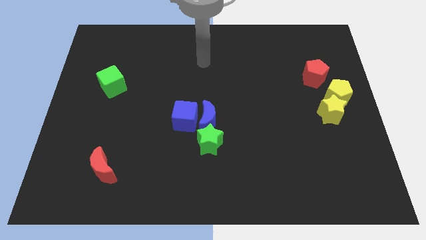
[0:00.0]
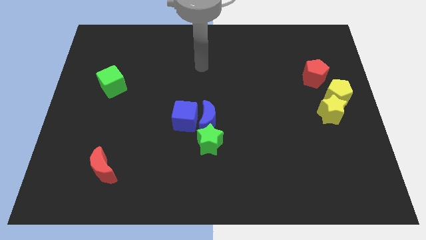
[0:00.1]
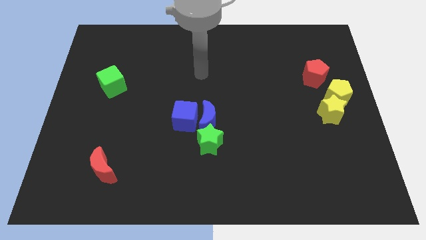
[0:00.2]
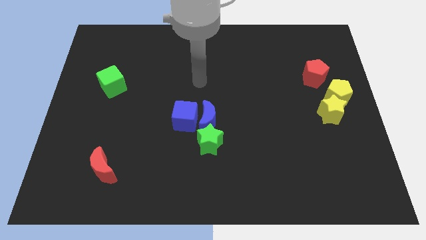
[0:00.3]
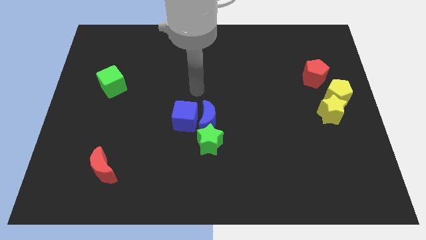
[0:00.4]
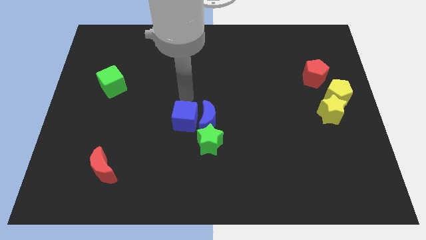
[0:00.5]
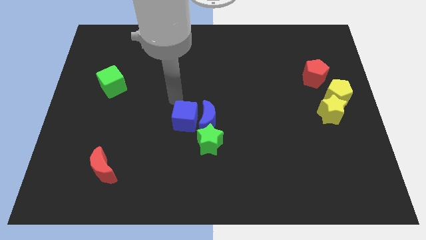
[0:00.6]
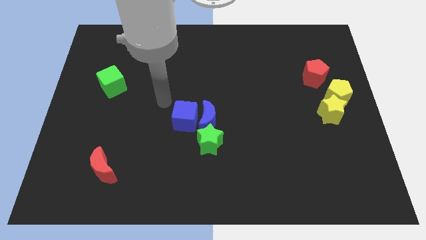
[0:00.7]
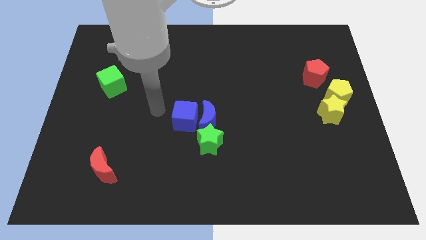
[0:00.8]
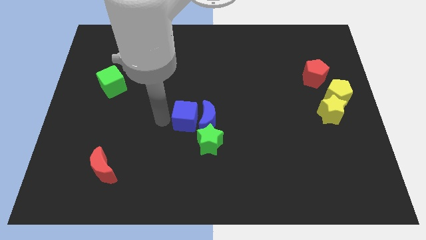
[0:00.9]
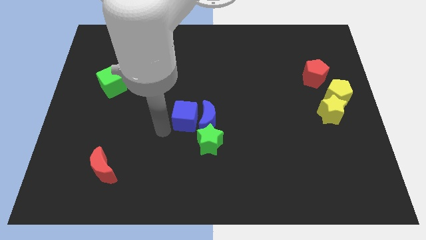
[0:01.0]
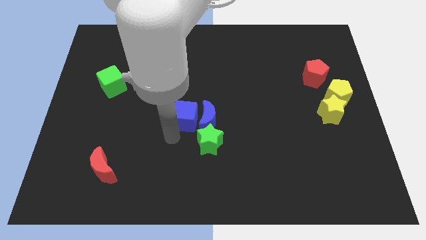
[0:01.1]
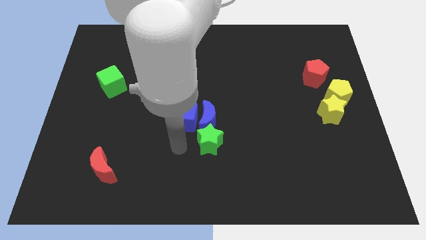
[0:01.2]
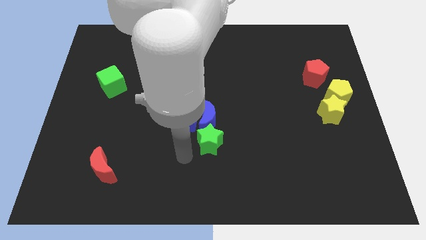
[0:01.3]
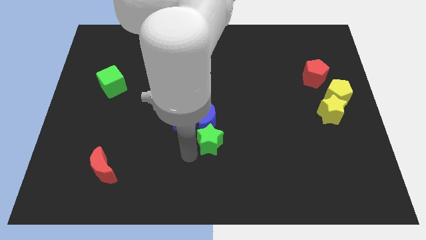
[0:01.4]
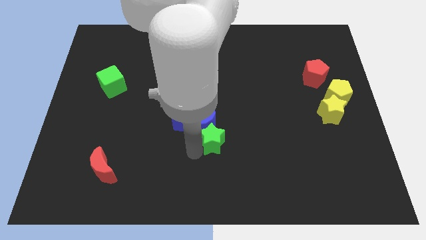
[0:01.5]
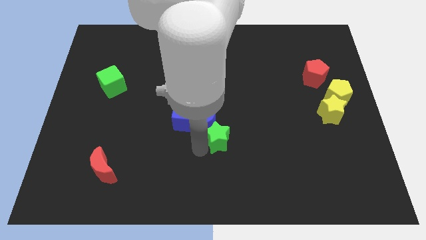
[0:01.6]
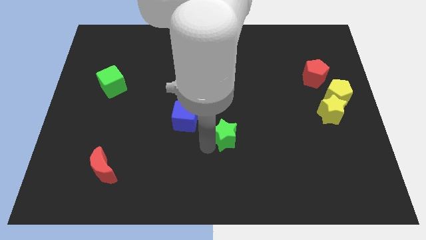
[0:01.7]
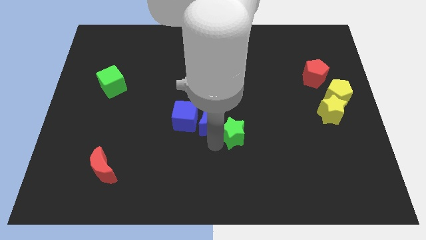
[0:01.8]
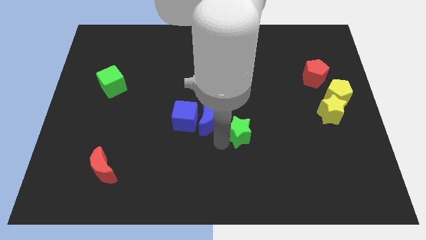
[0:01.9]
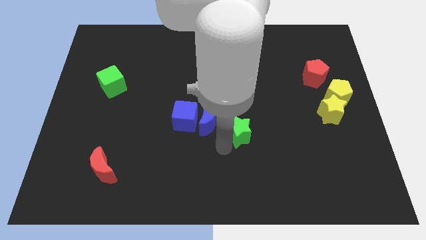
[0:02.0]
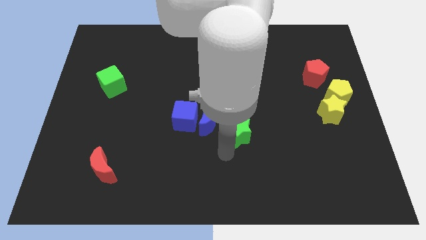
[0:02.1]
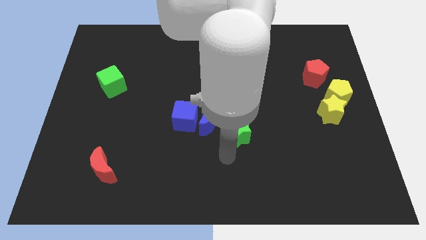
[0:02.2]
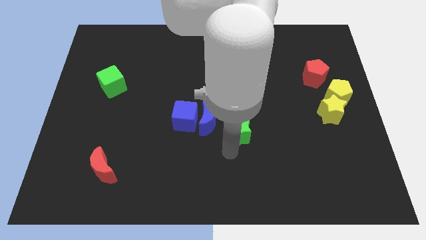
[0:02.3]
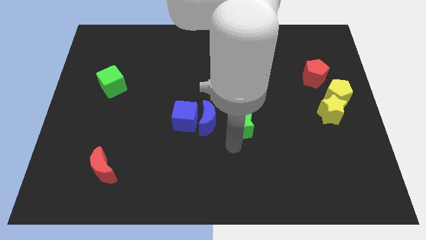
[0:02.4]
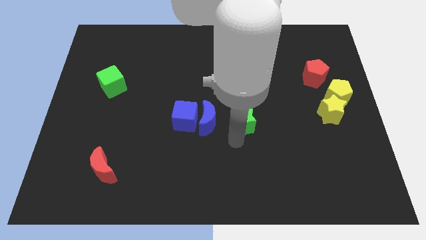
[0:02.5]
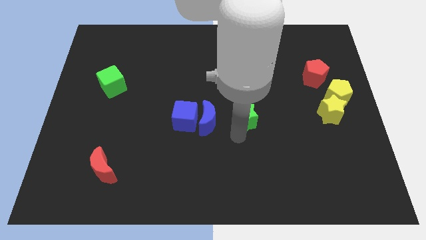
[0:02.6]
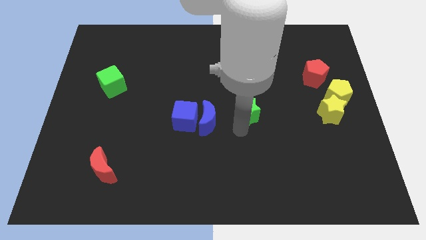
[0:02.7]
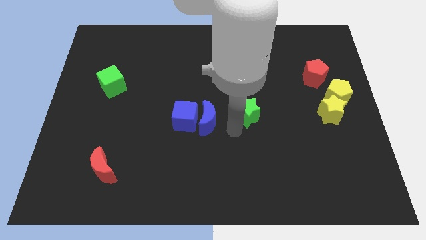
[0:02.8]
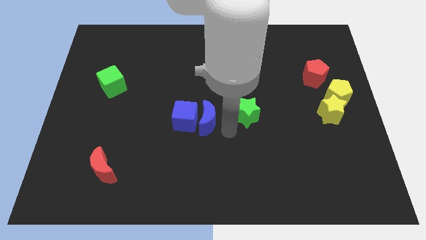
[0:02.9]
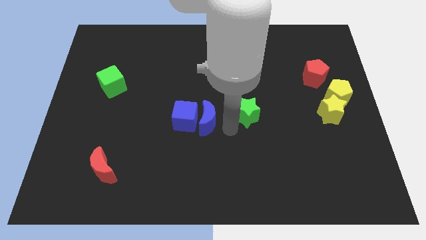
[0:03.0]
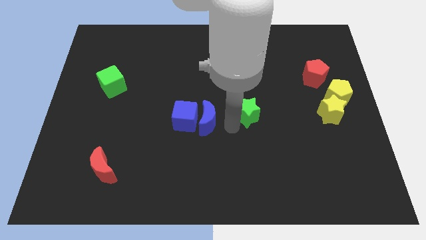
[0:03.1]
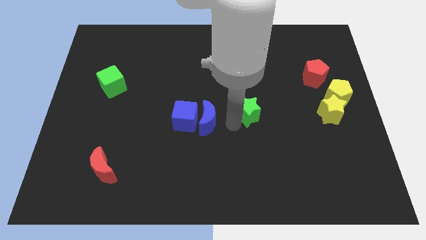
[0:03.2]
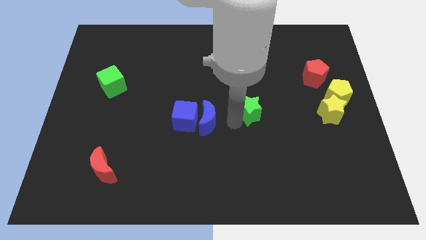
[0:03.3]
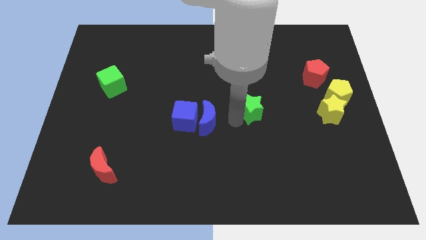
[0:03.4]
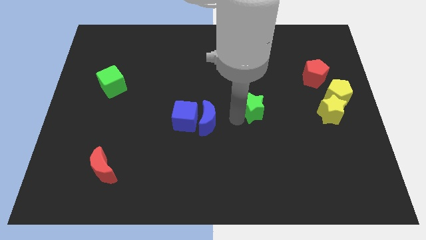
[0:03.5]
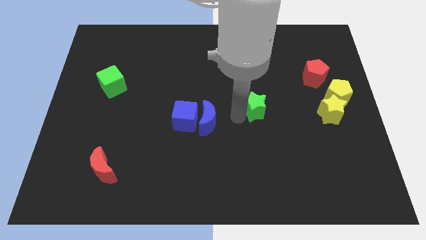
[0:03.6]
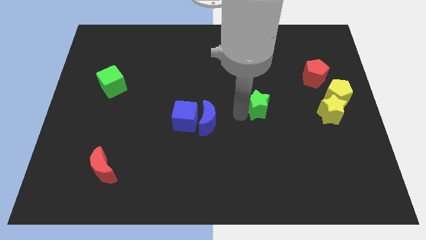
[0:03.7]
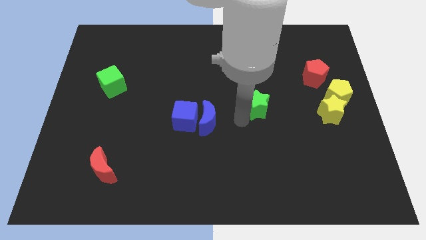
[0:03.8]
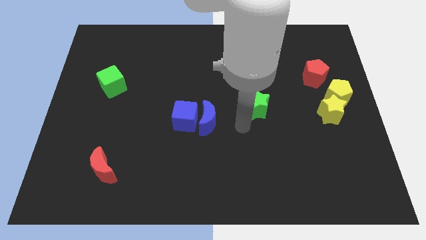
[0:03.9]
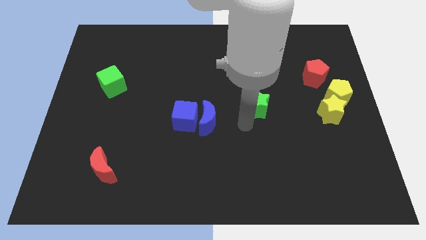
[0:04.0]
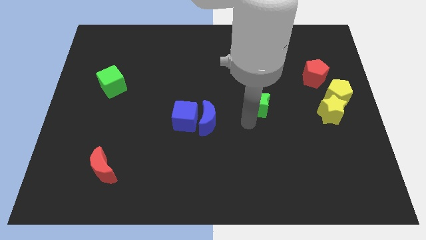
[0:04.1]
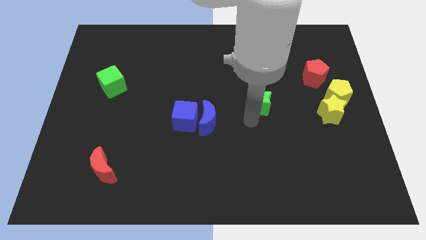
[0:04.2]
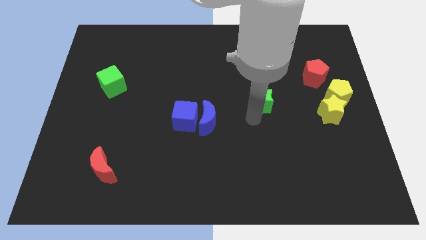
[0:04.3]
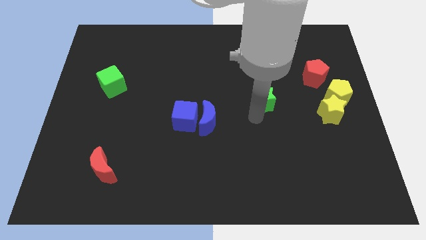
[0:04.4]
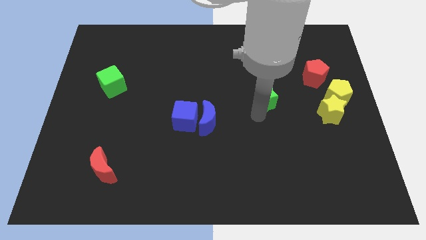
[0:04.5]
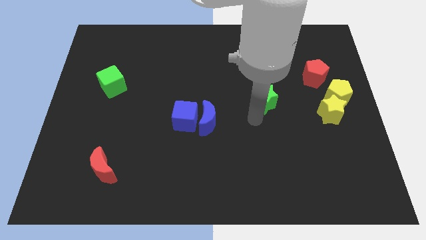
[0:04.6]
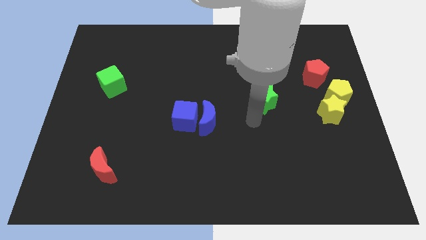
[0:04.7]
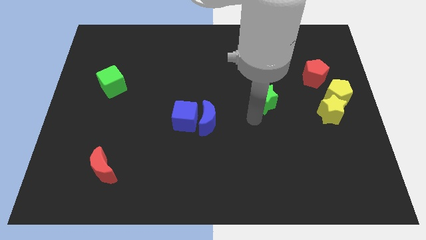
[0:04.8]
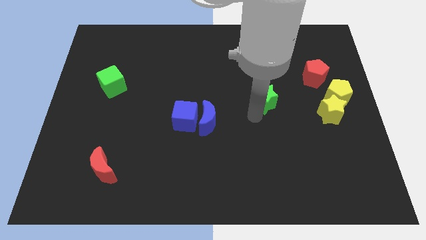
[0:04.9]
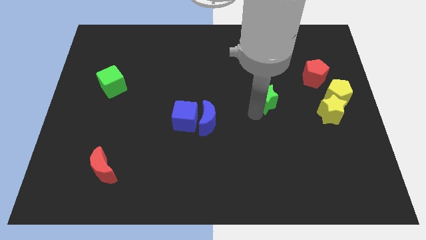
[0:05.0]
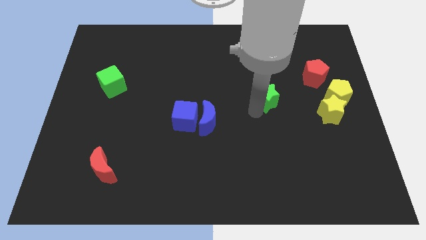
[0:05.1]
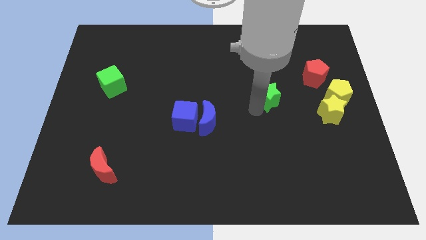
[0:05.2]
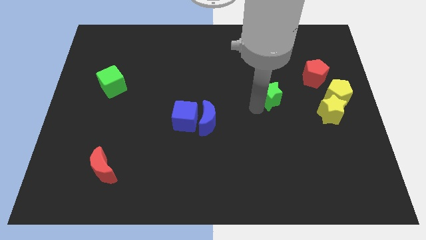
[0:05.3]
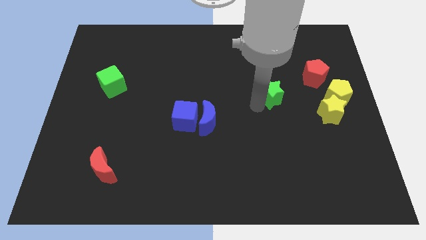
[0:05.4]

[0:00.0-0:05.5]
move the green star upwards and to the right

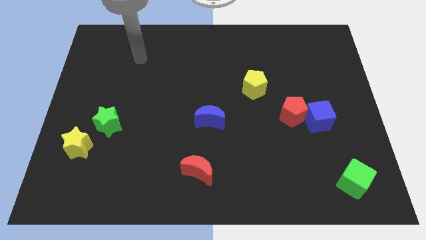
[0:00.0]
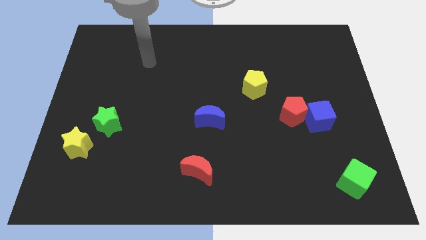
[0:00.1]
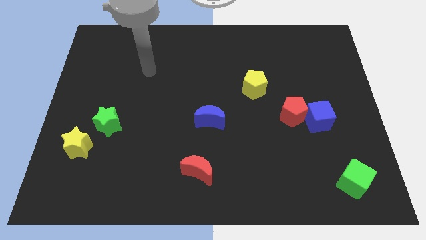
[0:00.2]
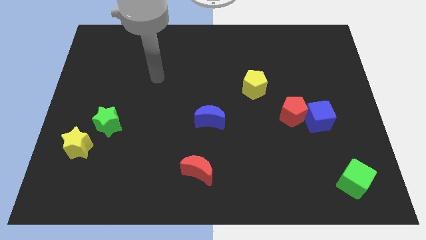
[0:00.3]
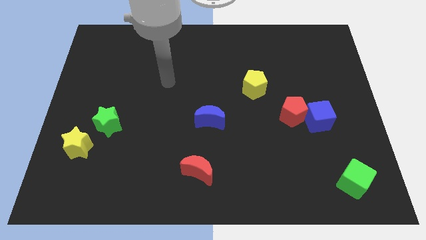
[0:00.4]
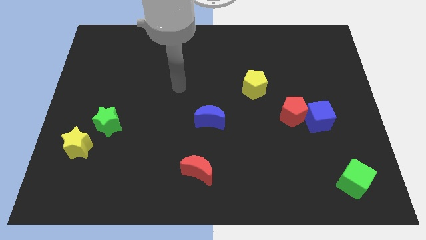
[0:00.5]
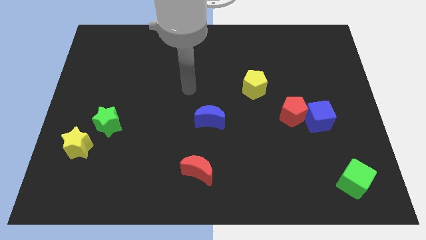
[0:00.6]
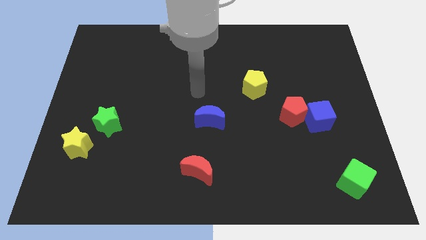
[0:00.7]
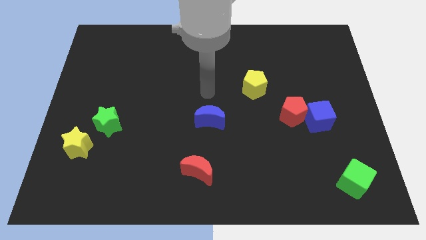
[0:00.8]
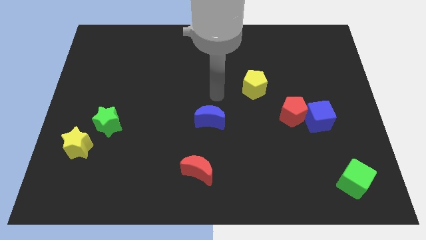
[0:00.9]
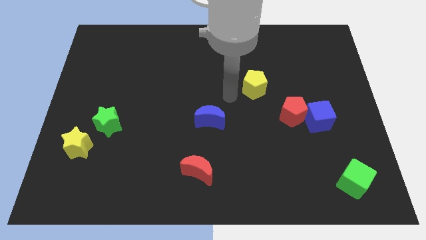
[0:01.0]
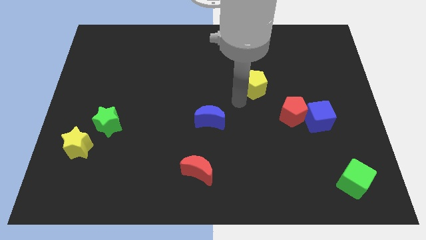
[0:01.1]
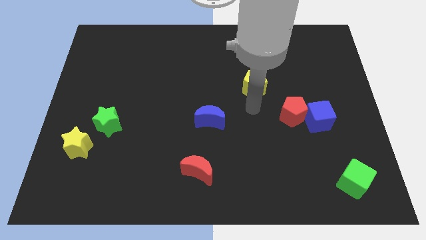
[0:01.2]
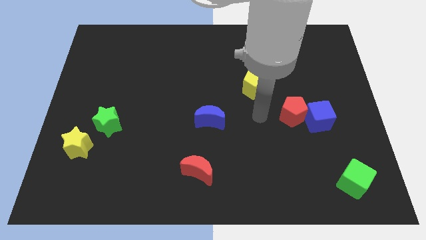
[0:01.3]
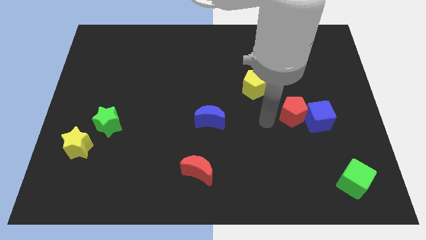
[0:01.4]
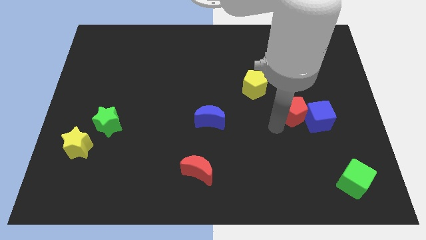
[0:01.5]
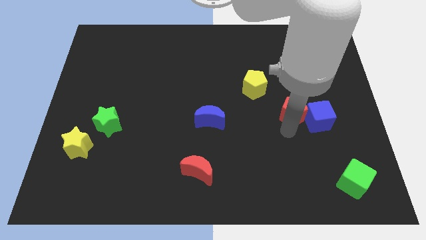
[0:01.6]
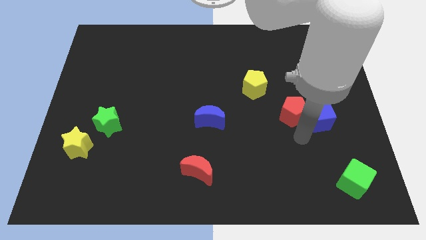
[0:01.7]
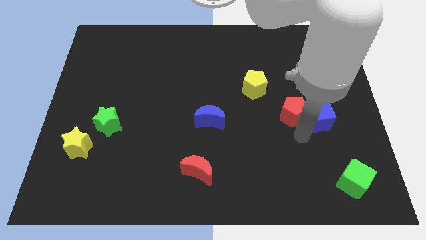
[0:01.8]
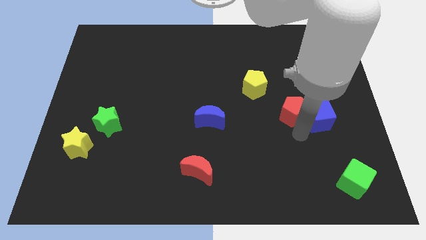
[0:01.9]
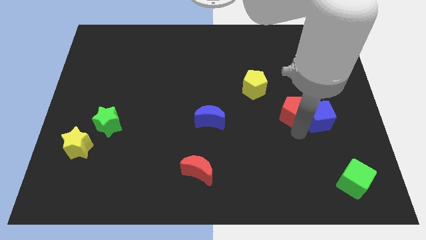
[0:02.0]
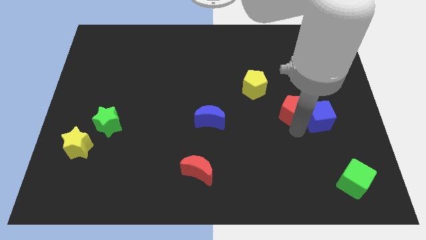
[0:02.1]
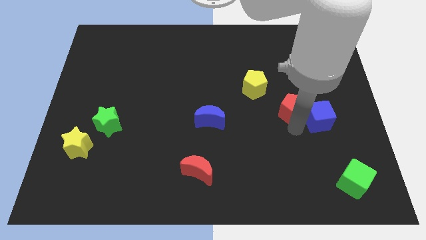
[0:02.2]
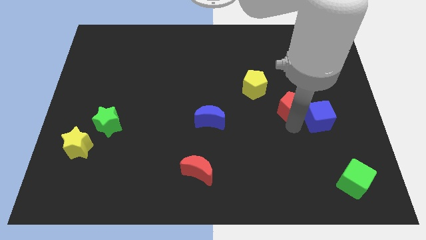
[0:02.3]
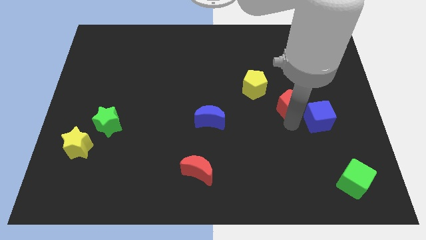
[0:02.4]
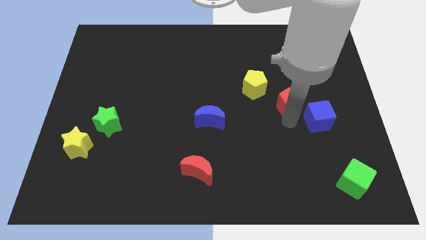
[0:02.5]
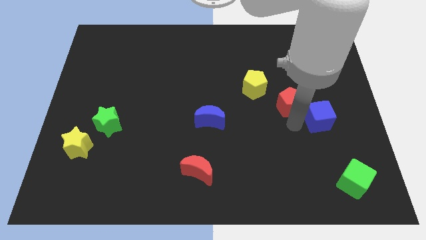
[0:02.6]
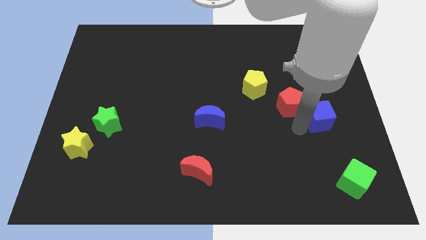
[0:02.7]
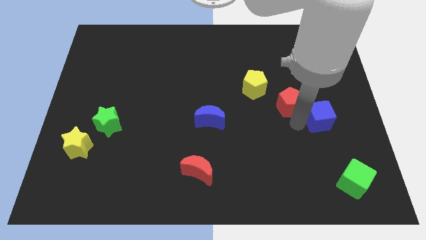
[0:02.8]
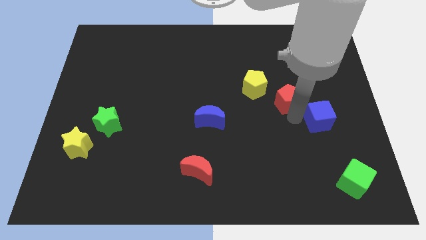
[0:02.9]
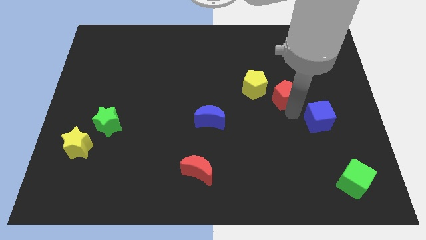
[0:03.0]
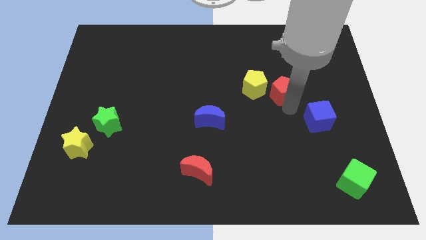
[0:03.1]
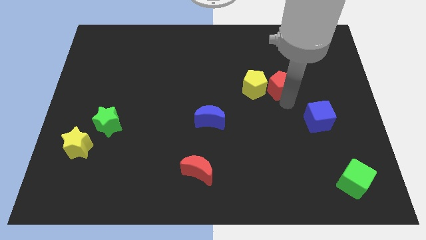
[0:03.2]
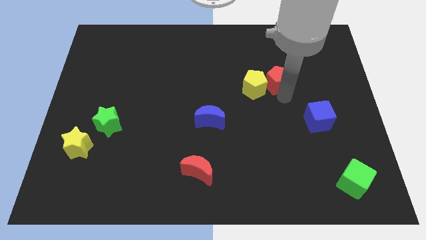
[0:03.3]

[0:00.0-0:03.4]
slightly slide the red pentagon diagonally up and to the left
